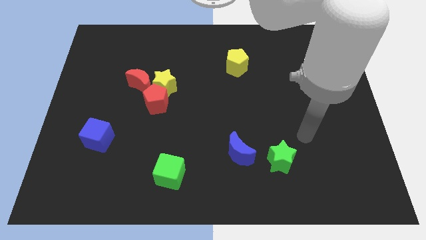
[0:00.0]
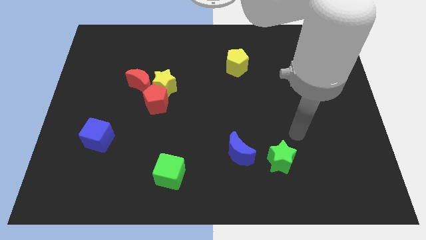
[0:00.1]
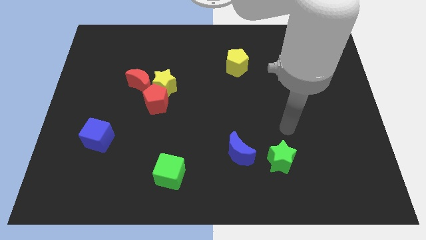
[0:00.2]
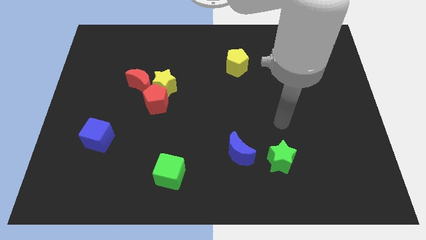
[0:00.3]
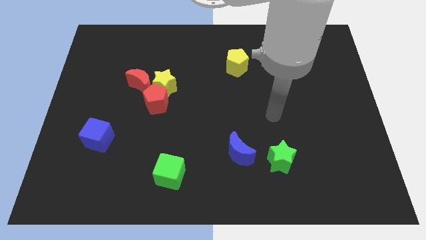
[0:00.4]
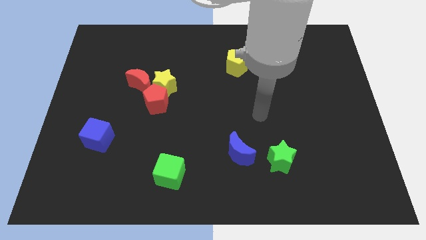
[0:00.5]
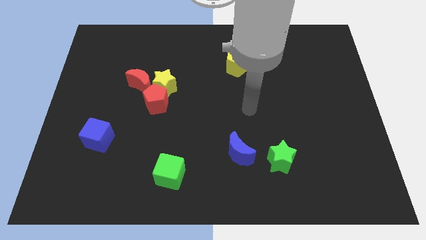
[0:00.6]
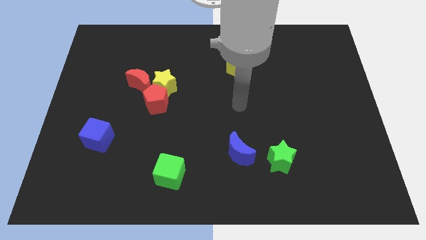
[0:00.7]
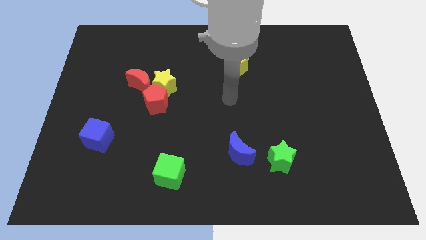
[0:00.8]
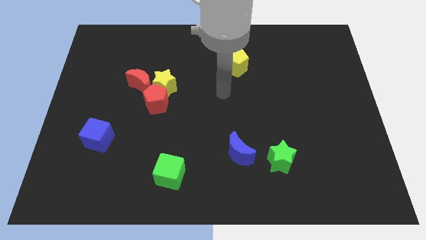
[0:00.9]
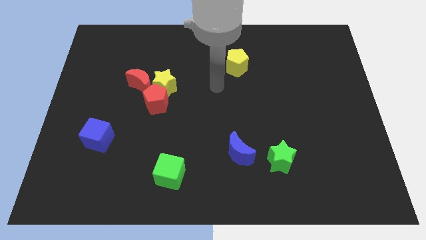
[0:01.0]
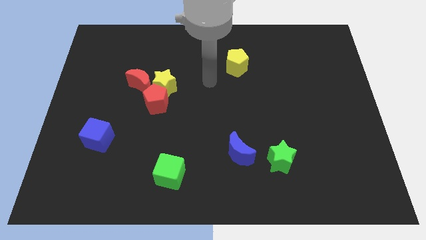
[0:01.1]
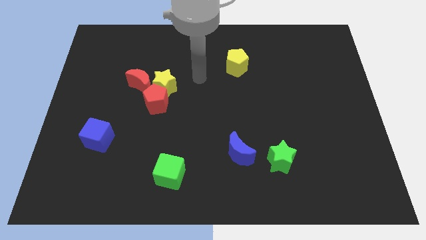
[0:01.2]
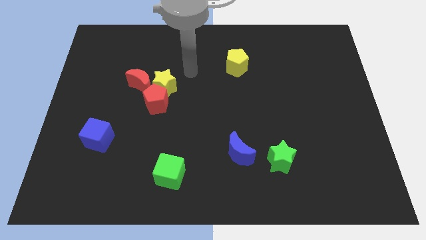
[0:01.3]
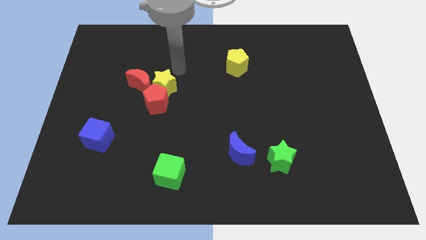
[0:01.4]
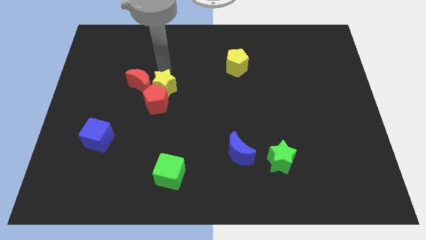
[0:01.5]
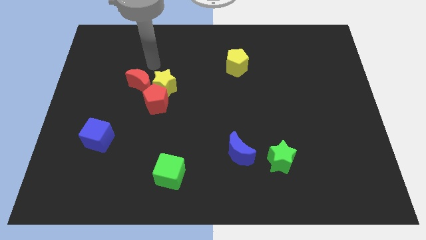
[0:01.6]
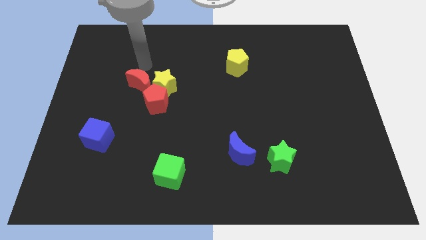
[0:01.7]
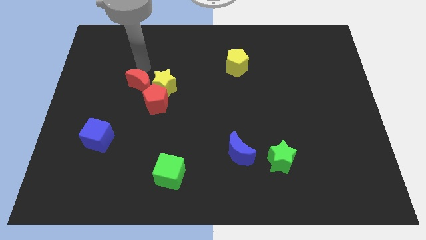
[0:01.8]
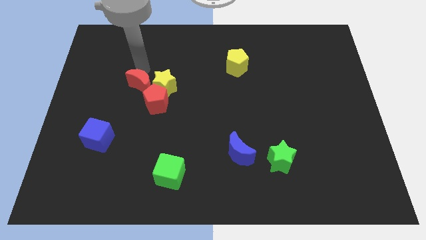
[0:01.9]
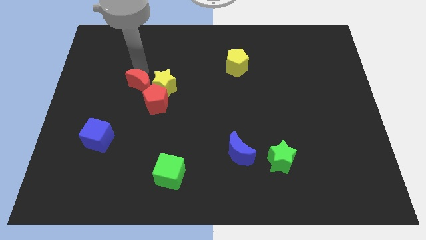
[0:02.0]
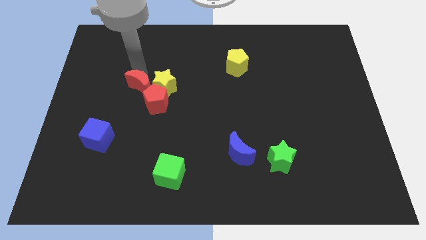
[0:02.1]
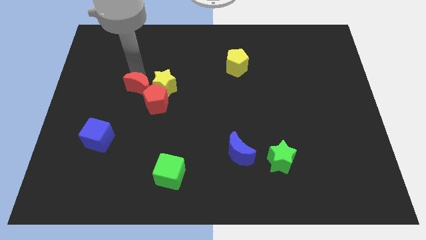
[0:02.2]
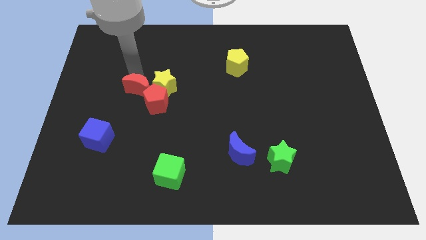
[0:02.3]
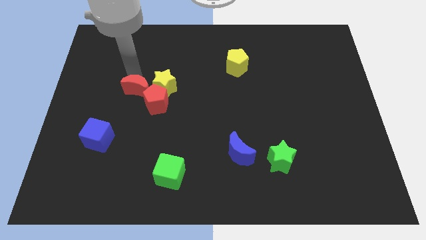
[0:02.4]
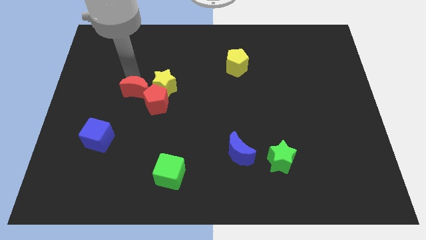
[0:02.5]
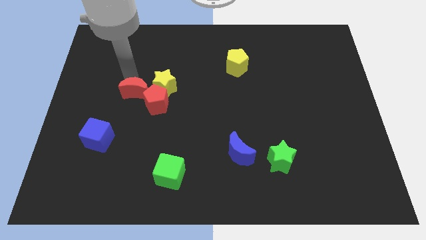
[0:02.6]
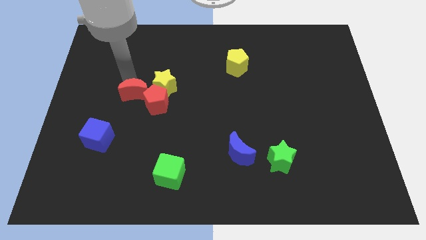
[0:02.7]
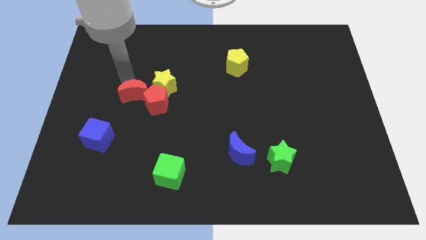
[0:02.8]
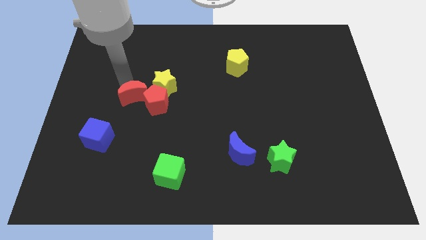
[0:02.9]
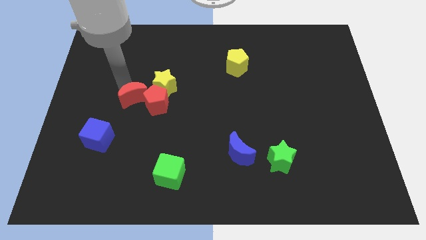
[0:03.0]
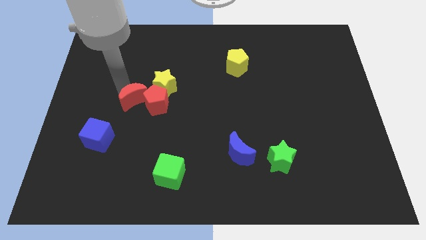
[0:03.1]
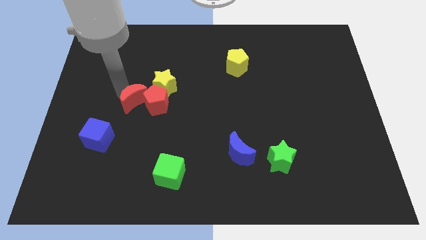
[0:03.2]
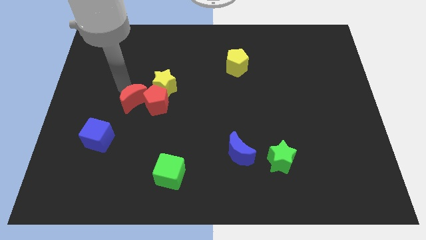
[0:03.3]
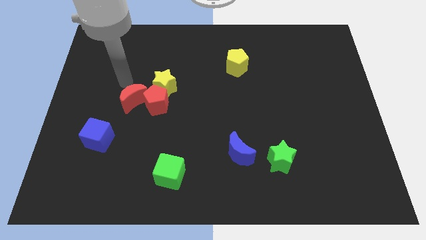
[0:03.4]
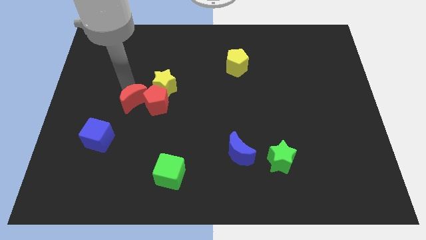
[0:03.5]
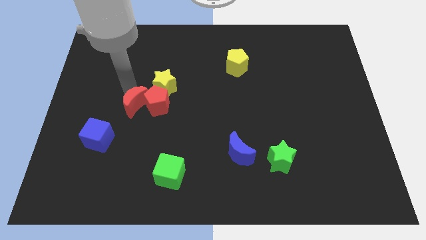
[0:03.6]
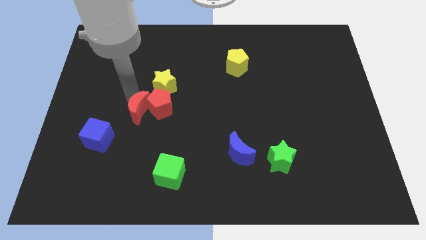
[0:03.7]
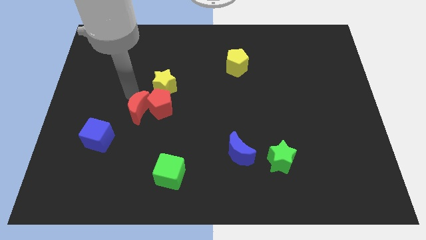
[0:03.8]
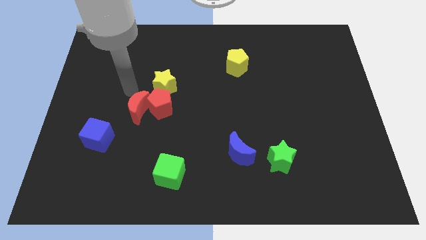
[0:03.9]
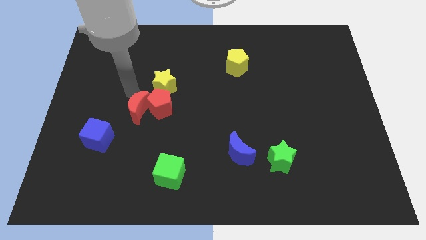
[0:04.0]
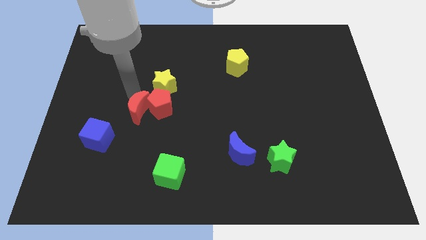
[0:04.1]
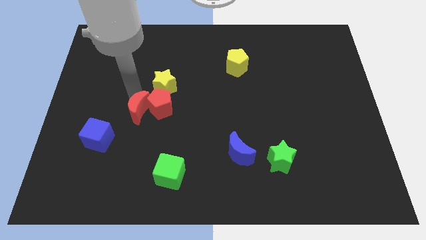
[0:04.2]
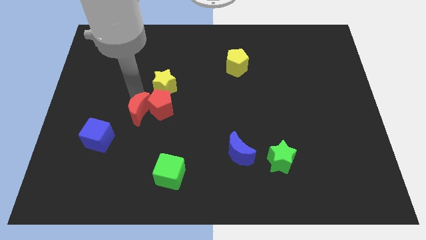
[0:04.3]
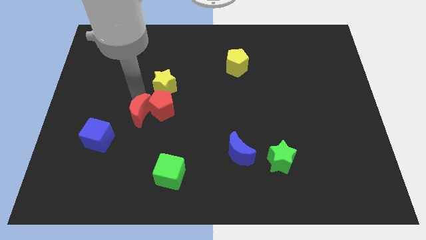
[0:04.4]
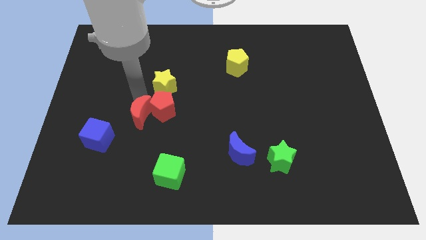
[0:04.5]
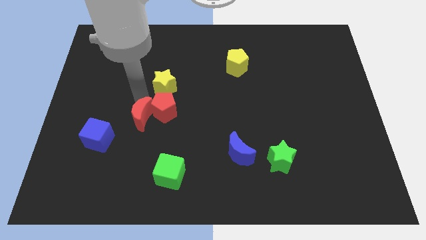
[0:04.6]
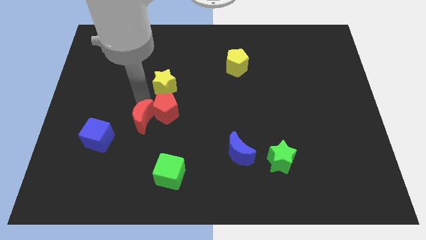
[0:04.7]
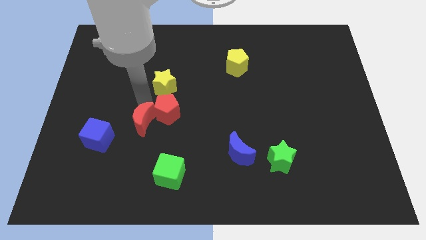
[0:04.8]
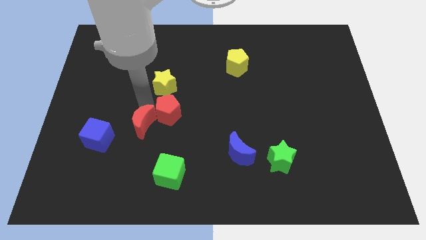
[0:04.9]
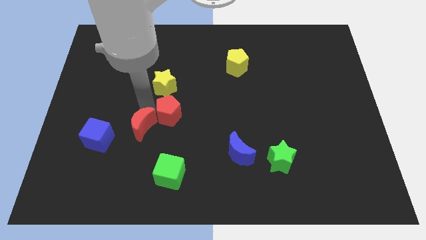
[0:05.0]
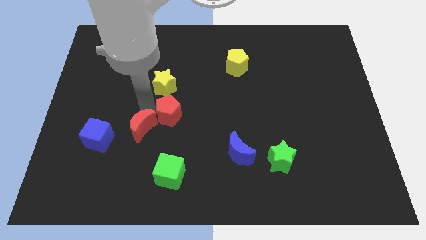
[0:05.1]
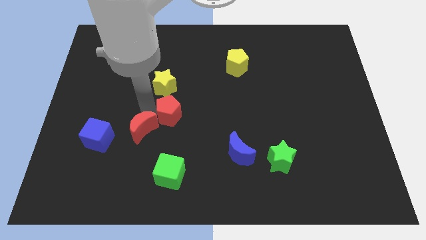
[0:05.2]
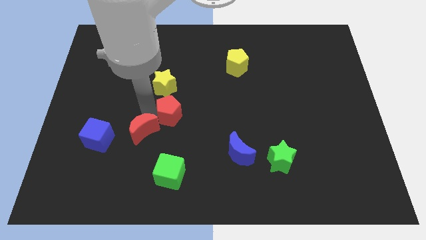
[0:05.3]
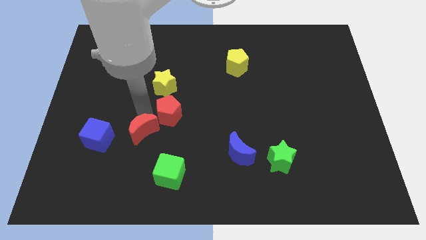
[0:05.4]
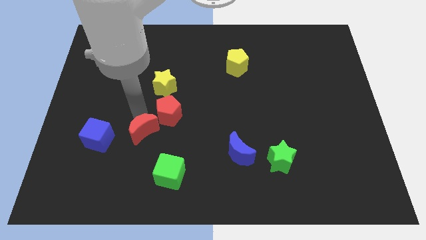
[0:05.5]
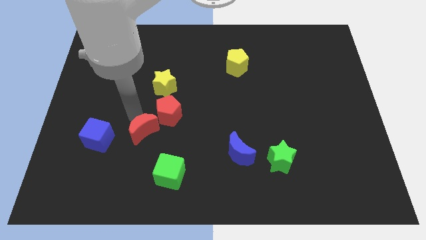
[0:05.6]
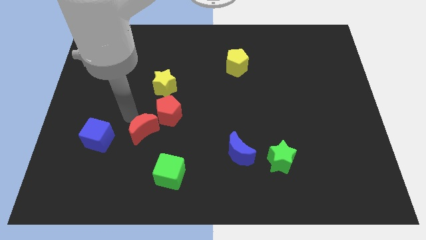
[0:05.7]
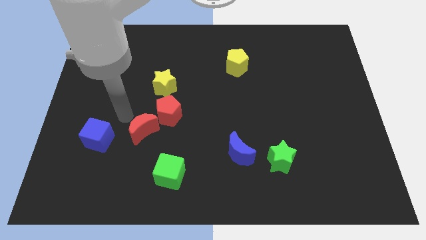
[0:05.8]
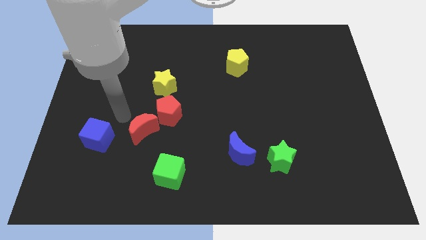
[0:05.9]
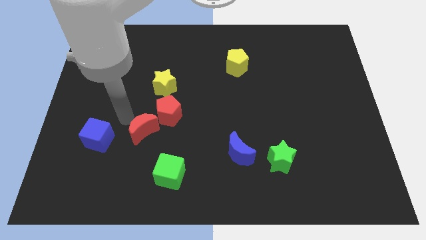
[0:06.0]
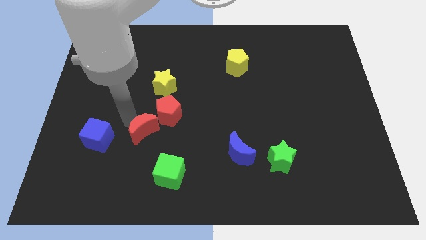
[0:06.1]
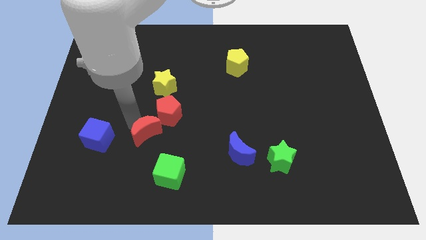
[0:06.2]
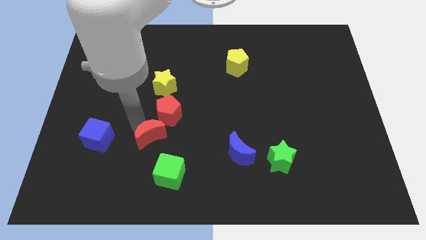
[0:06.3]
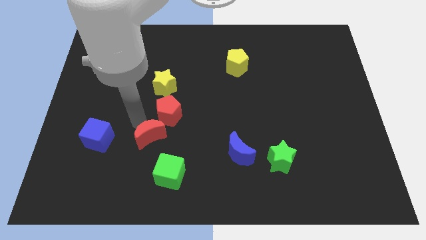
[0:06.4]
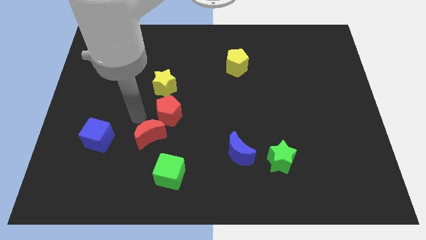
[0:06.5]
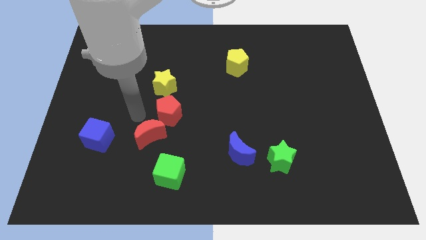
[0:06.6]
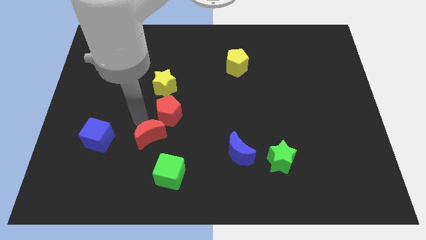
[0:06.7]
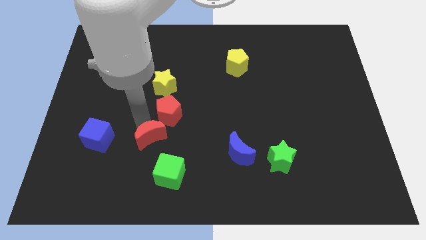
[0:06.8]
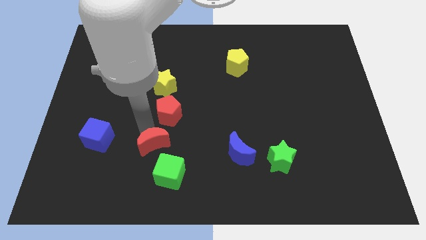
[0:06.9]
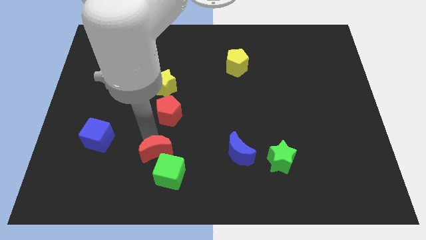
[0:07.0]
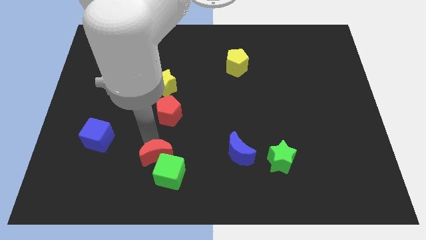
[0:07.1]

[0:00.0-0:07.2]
move the red moon towards the green cube
